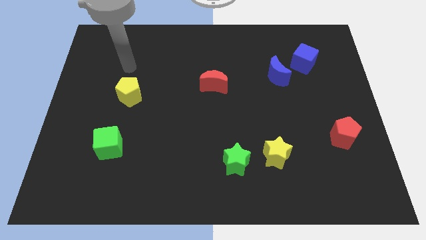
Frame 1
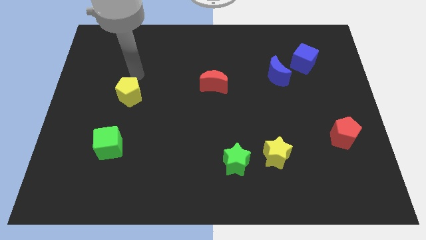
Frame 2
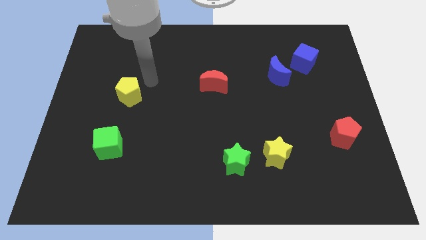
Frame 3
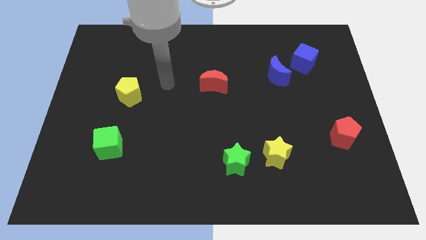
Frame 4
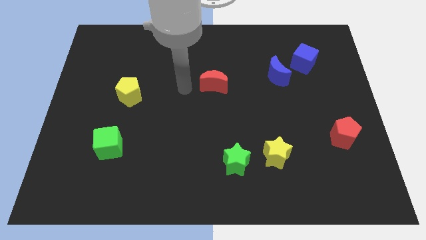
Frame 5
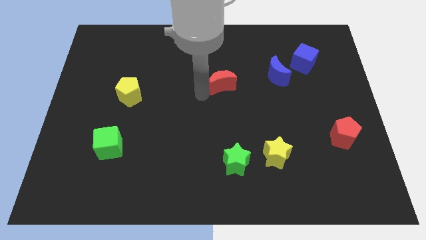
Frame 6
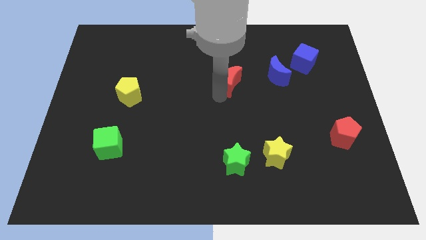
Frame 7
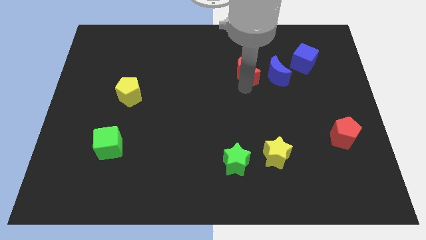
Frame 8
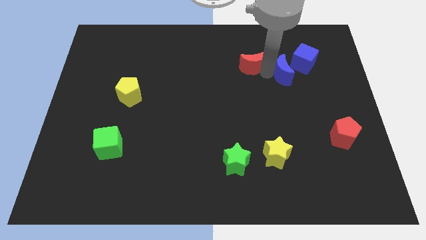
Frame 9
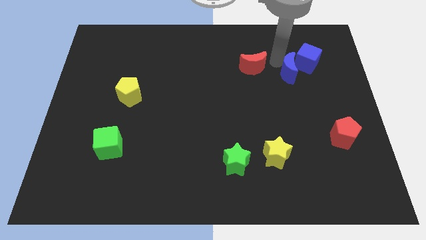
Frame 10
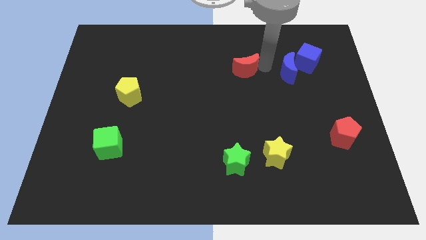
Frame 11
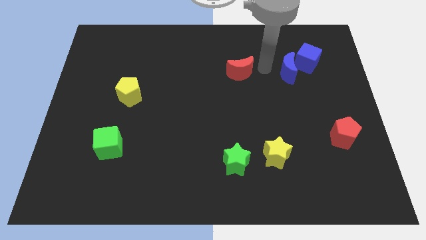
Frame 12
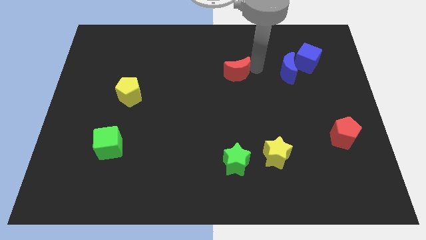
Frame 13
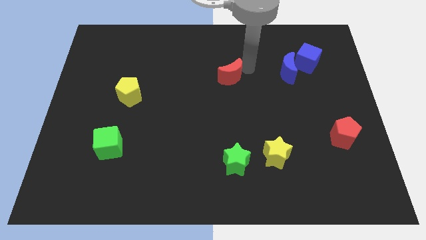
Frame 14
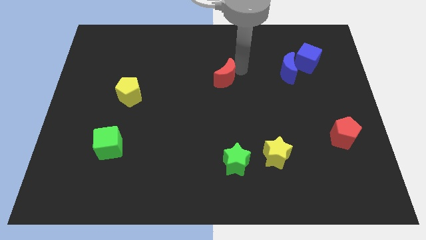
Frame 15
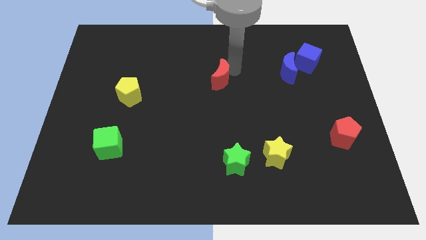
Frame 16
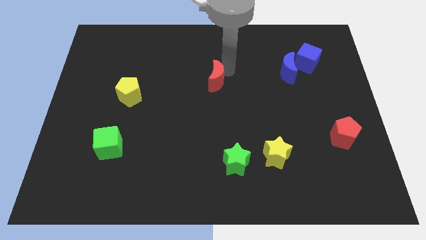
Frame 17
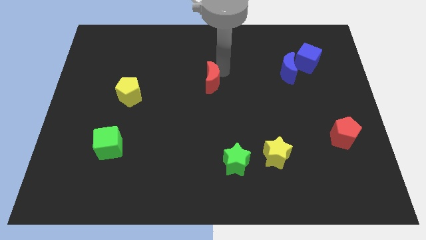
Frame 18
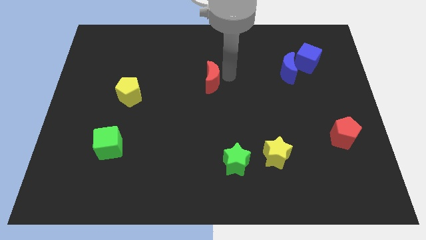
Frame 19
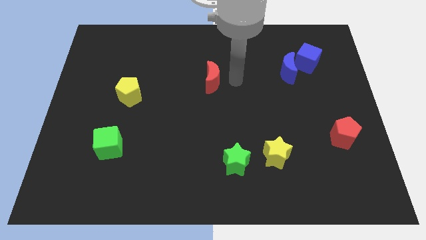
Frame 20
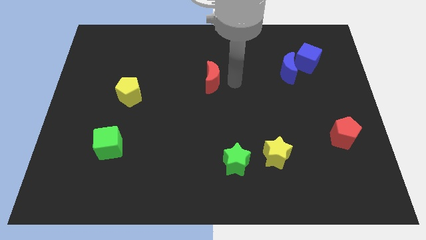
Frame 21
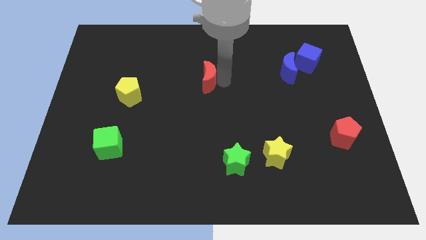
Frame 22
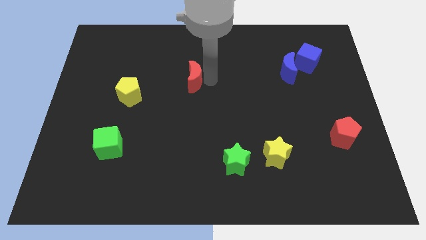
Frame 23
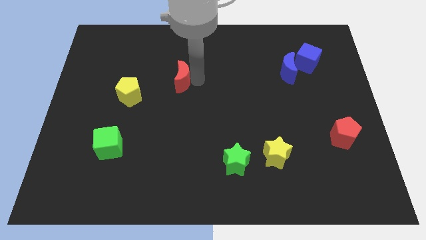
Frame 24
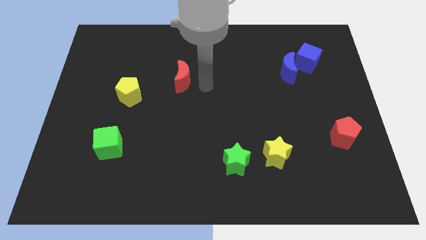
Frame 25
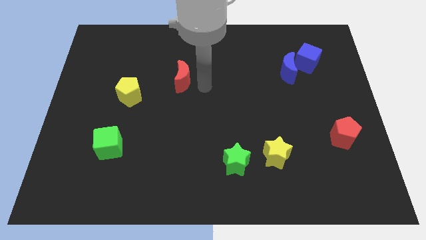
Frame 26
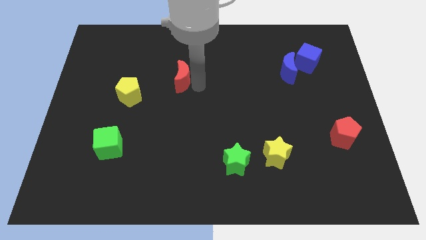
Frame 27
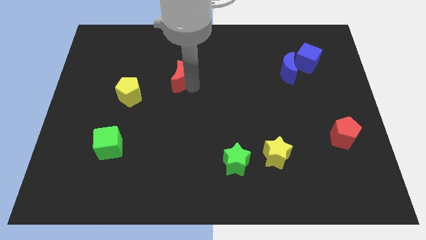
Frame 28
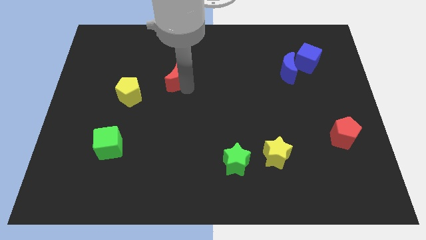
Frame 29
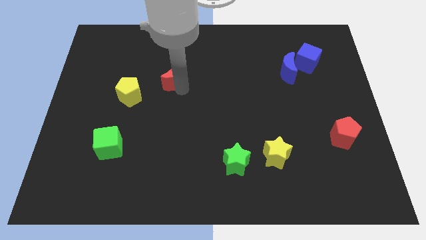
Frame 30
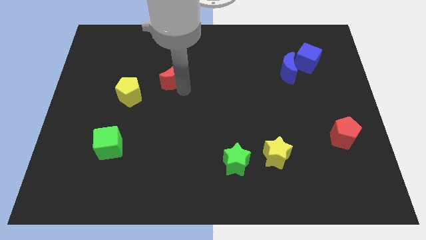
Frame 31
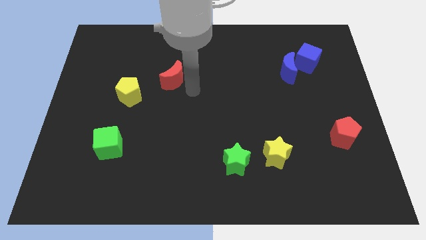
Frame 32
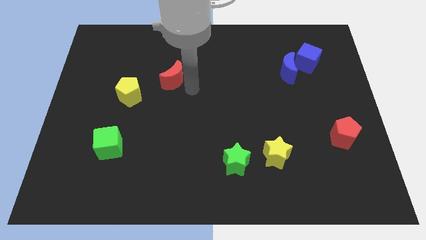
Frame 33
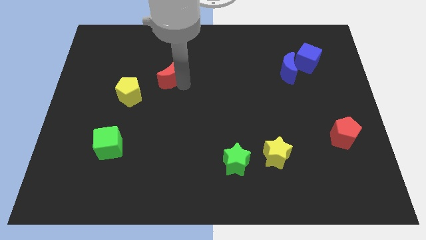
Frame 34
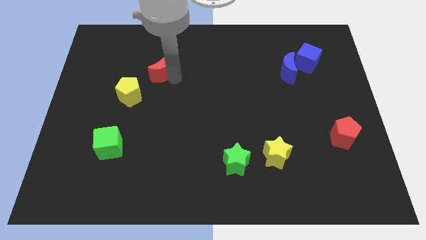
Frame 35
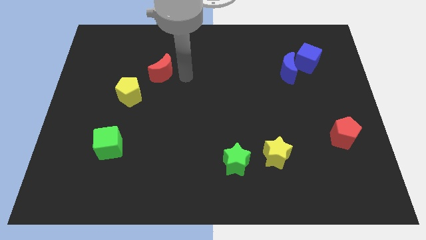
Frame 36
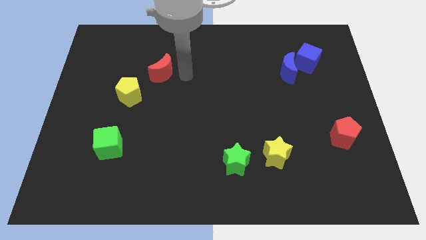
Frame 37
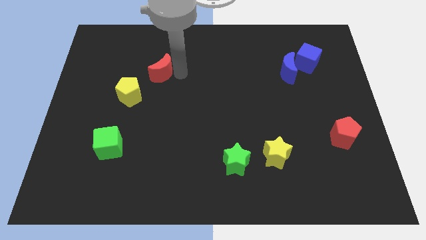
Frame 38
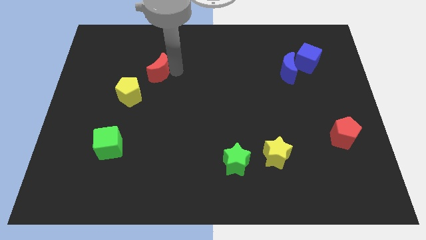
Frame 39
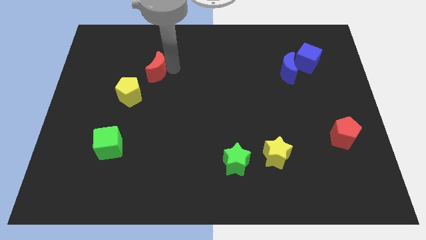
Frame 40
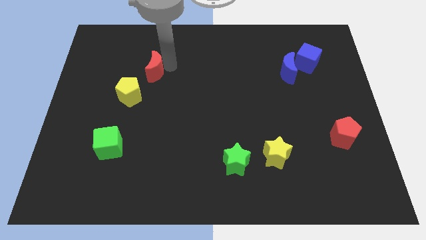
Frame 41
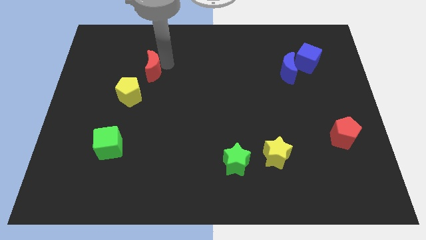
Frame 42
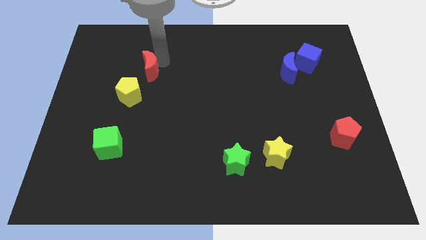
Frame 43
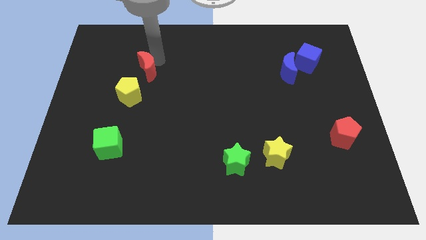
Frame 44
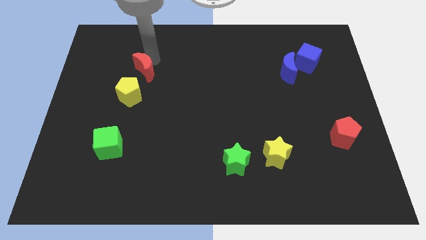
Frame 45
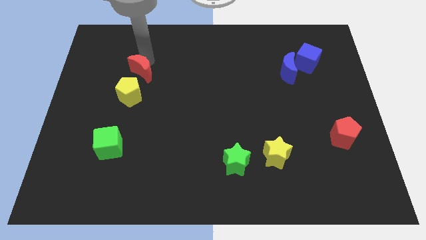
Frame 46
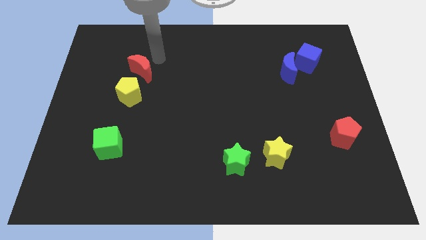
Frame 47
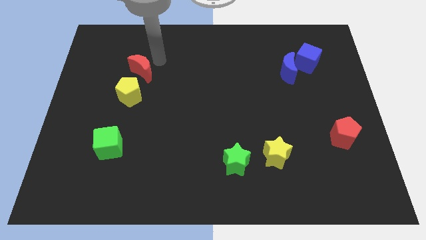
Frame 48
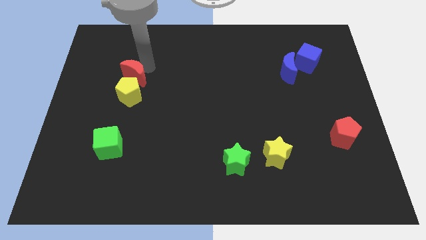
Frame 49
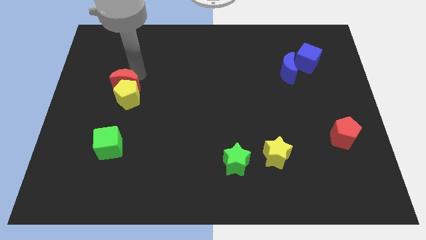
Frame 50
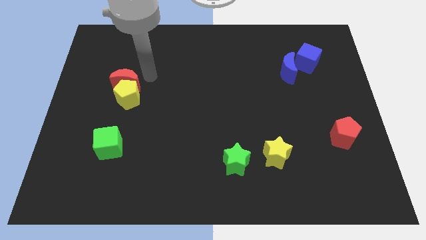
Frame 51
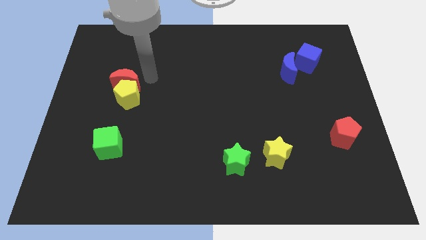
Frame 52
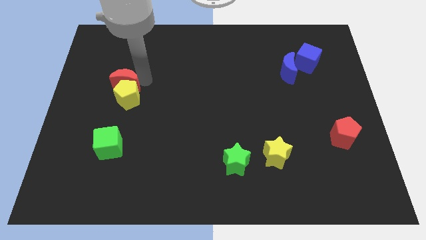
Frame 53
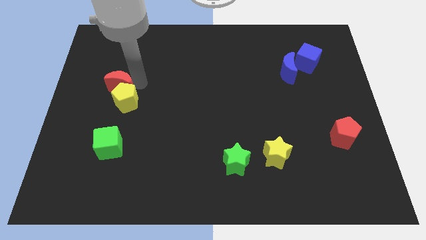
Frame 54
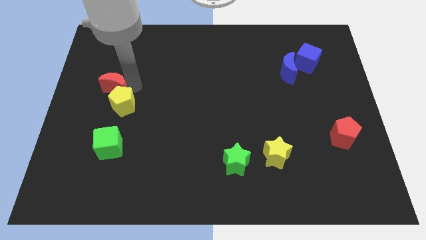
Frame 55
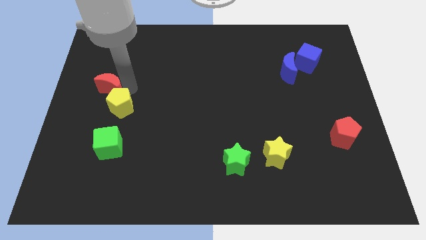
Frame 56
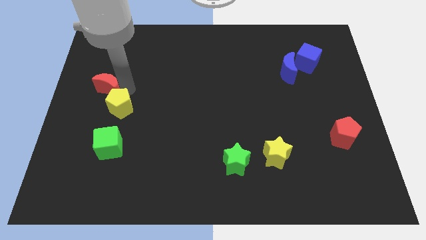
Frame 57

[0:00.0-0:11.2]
move the red moon to the center left
